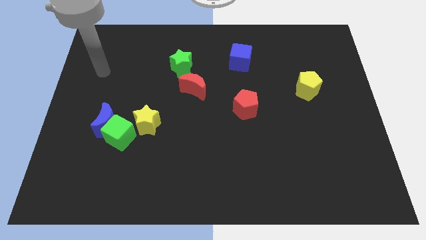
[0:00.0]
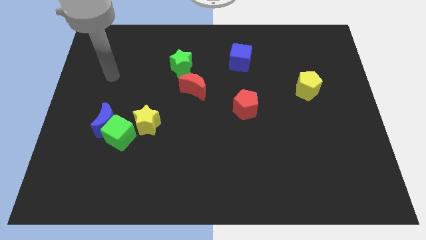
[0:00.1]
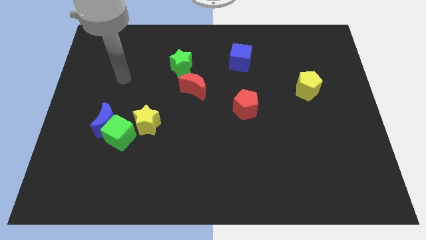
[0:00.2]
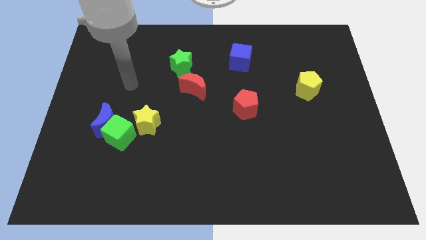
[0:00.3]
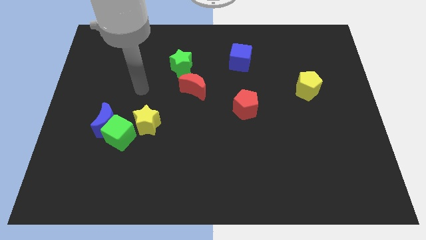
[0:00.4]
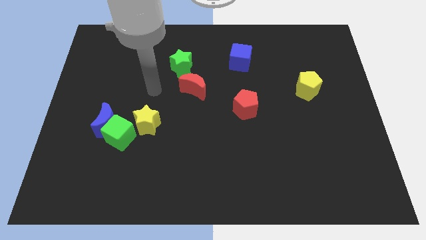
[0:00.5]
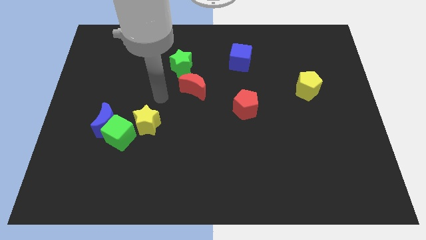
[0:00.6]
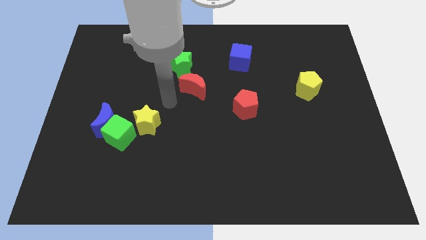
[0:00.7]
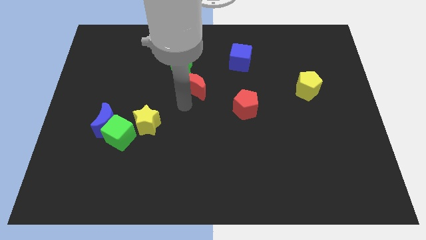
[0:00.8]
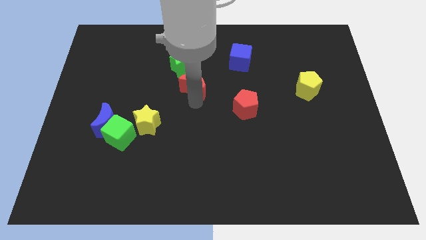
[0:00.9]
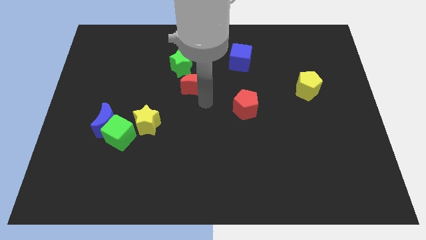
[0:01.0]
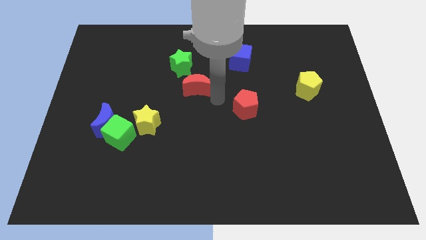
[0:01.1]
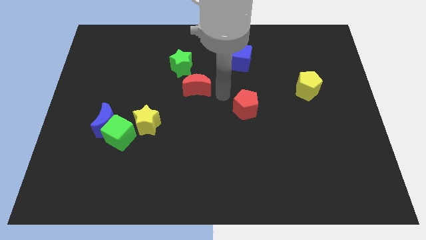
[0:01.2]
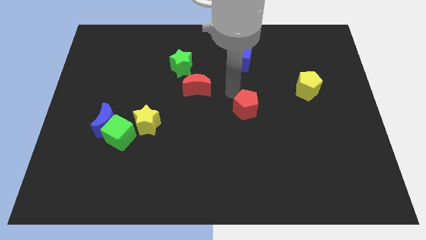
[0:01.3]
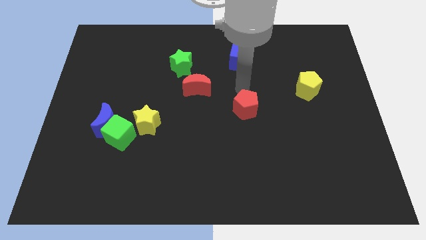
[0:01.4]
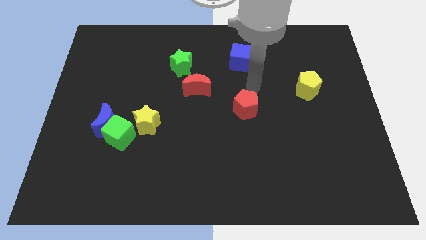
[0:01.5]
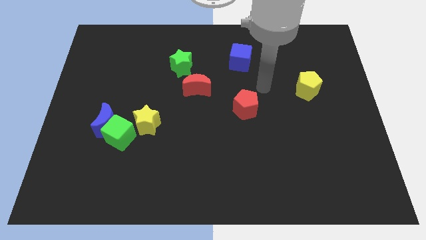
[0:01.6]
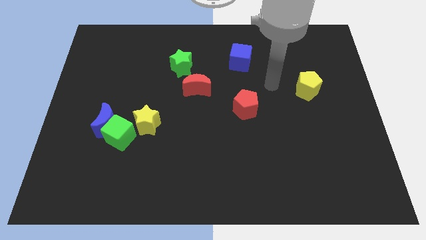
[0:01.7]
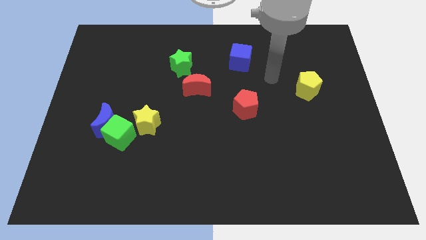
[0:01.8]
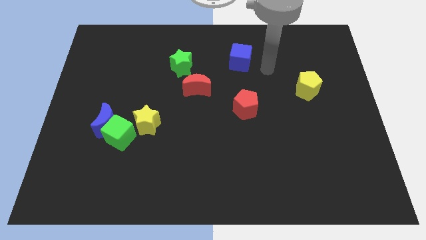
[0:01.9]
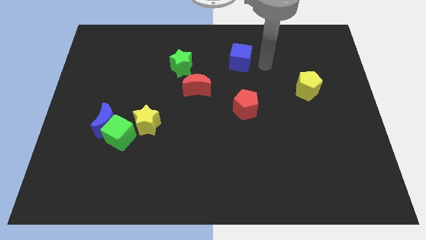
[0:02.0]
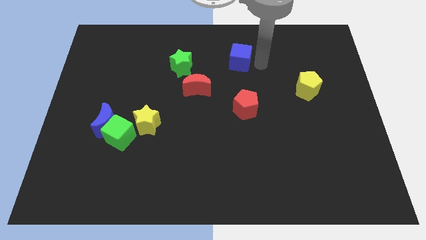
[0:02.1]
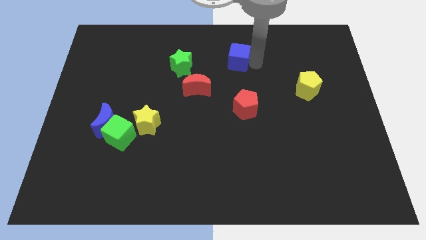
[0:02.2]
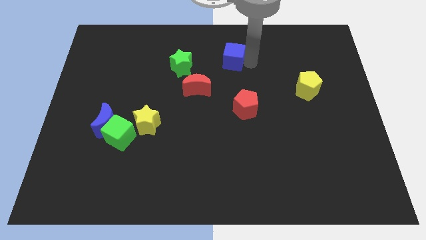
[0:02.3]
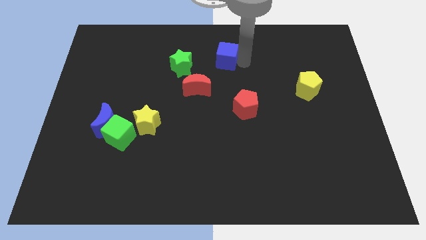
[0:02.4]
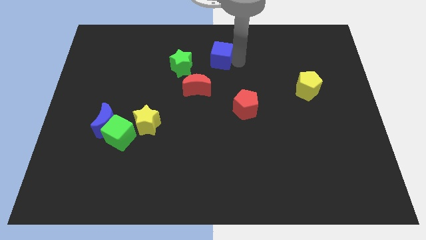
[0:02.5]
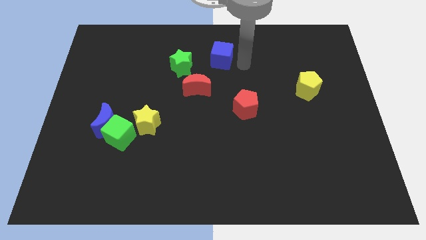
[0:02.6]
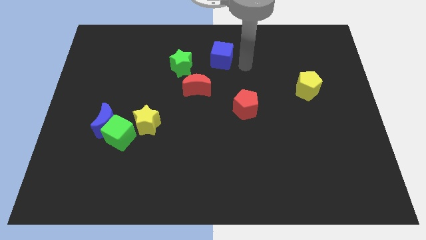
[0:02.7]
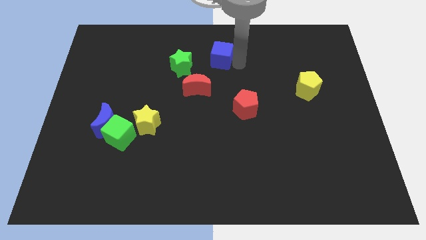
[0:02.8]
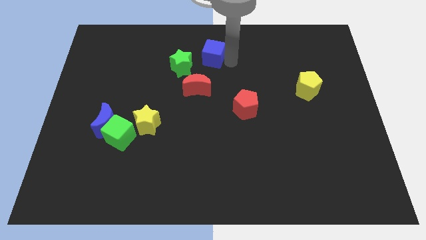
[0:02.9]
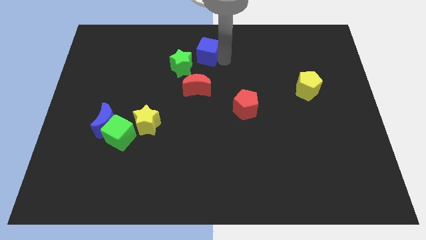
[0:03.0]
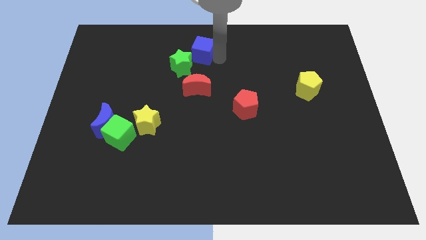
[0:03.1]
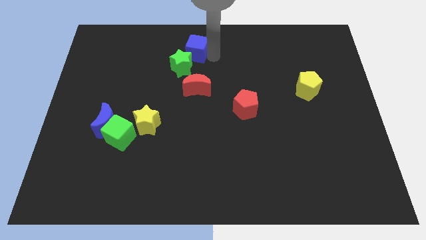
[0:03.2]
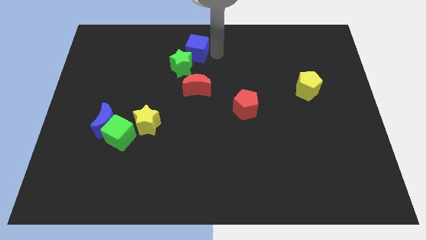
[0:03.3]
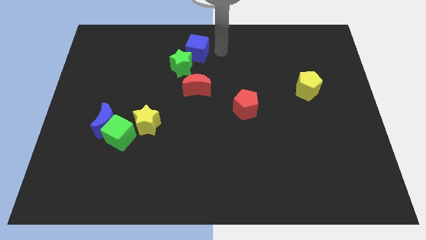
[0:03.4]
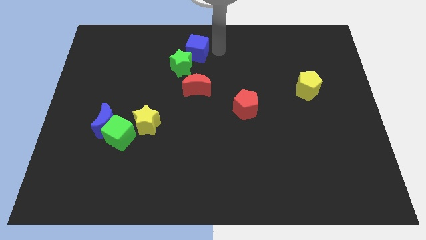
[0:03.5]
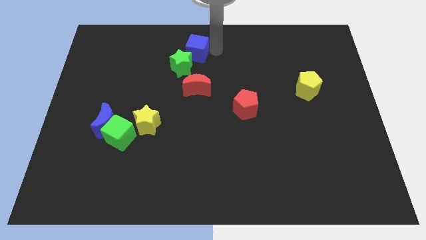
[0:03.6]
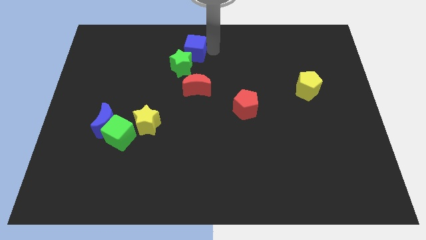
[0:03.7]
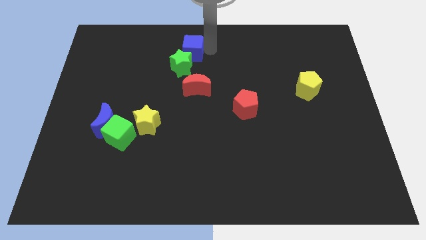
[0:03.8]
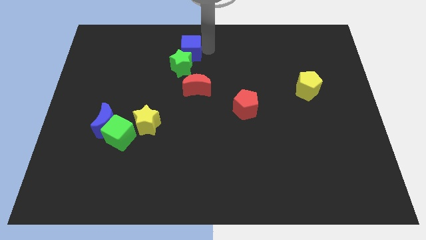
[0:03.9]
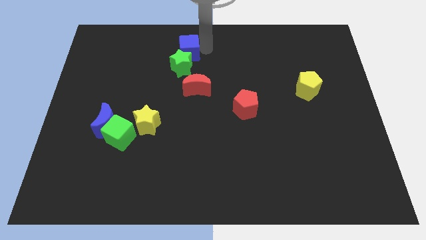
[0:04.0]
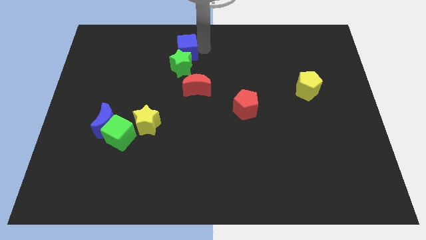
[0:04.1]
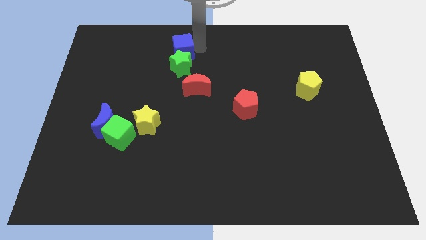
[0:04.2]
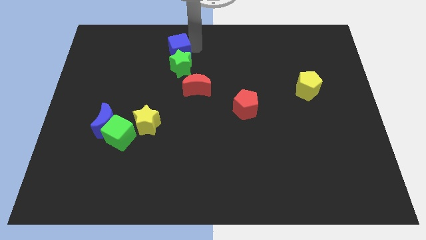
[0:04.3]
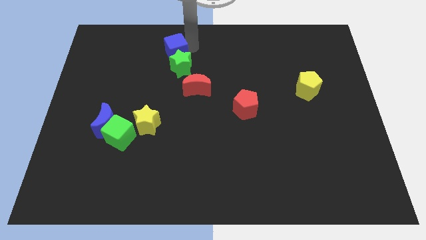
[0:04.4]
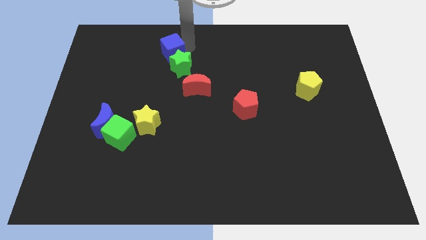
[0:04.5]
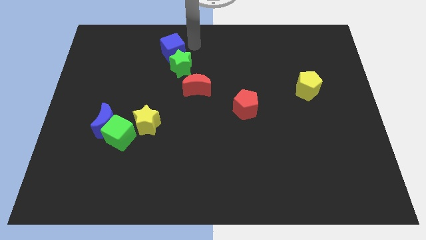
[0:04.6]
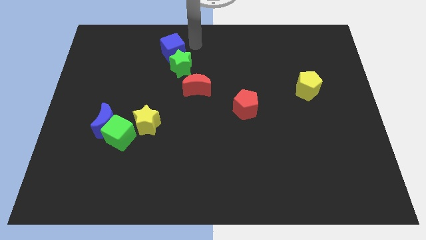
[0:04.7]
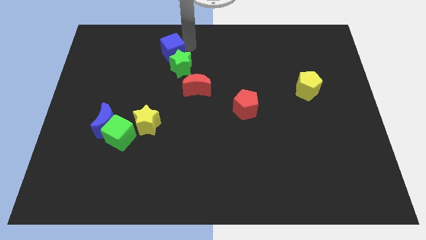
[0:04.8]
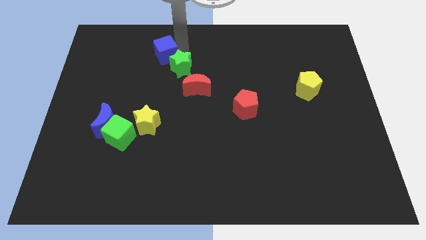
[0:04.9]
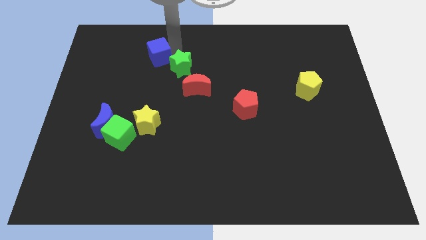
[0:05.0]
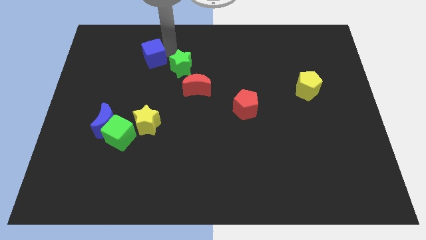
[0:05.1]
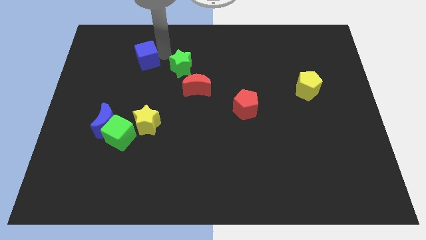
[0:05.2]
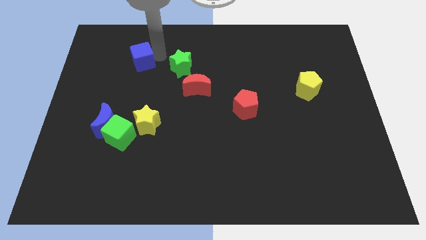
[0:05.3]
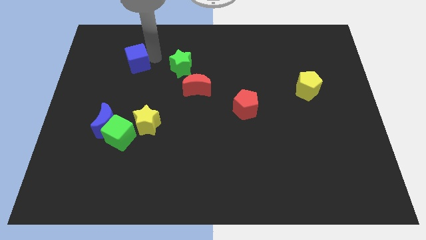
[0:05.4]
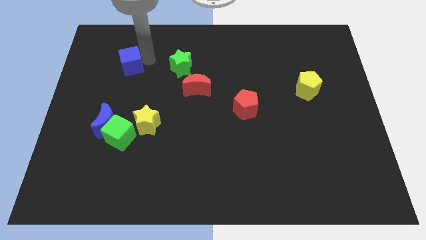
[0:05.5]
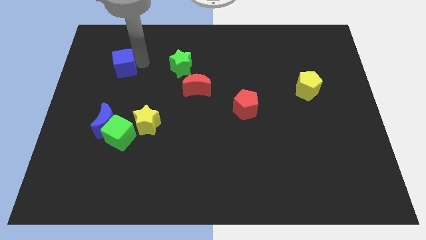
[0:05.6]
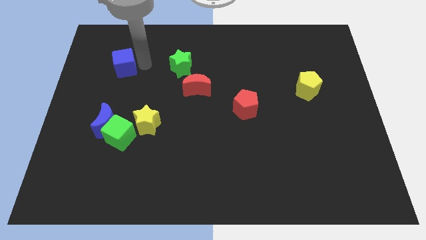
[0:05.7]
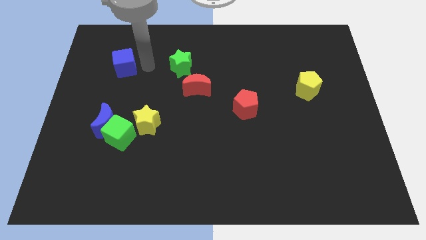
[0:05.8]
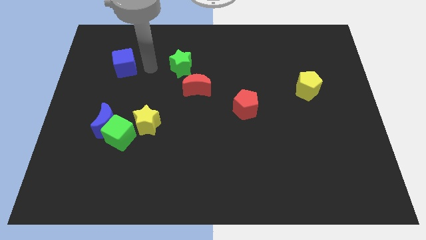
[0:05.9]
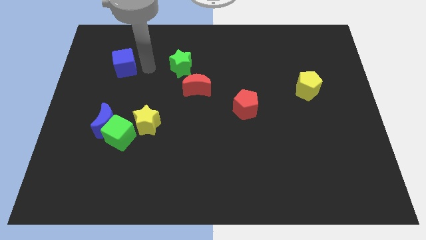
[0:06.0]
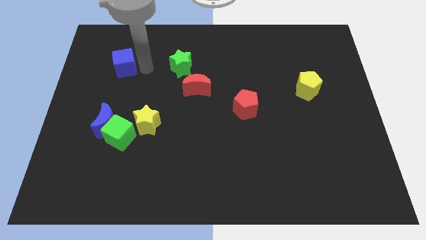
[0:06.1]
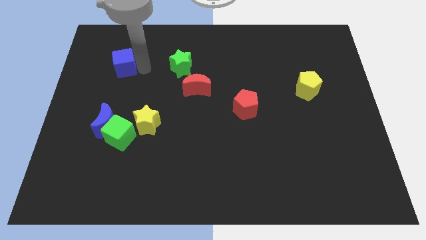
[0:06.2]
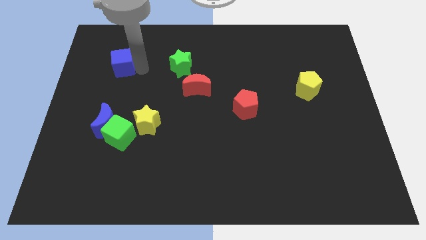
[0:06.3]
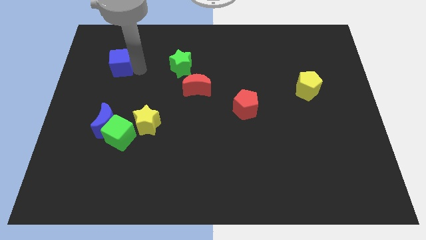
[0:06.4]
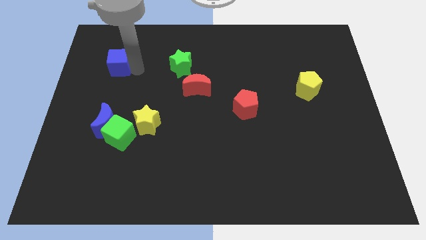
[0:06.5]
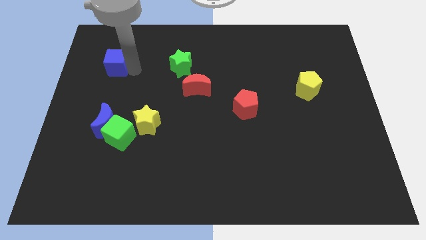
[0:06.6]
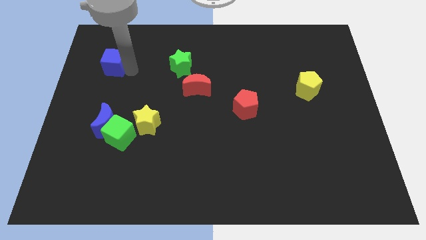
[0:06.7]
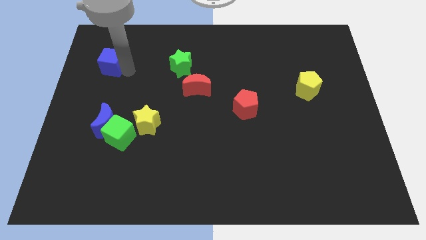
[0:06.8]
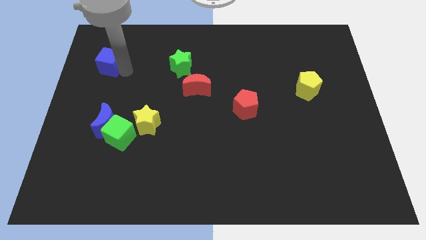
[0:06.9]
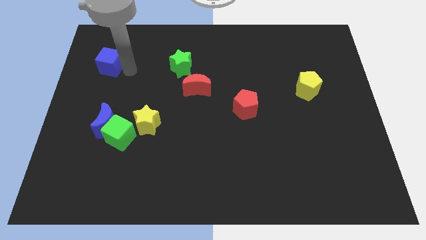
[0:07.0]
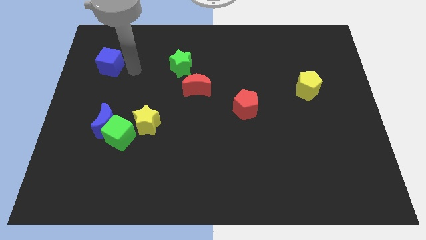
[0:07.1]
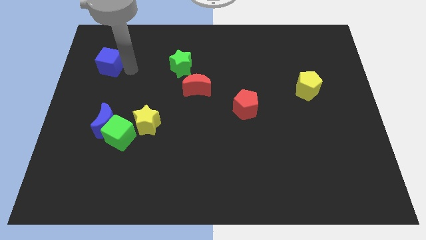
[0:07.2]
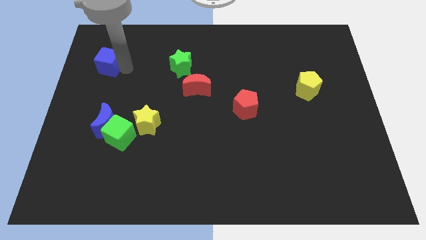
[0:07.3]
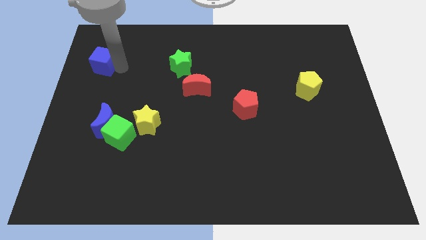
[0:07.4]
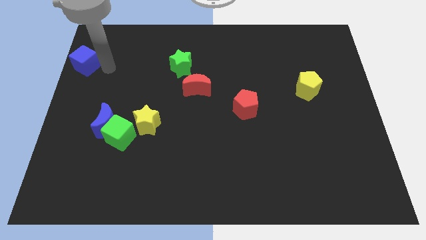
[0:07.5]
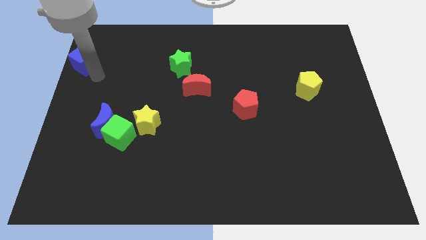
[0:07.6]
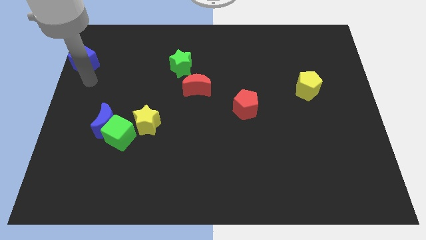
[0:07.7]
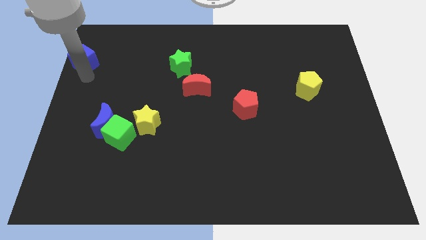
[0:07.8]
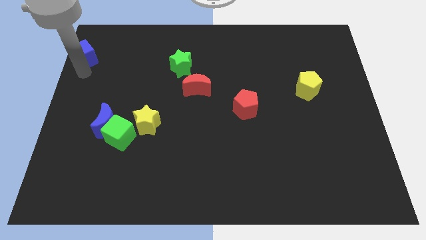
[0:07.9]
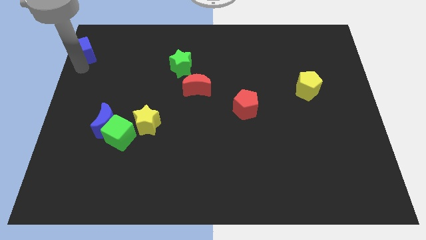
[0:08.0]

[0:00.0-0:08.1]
push the blue cube to the top left corner
